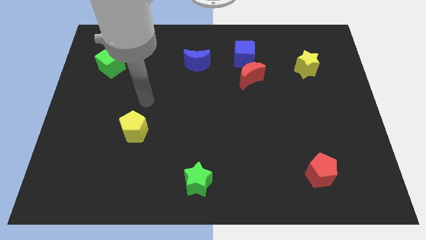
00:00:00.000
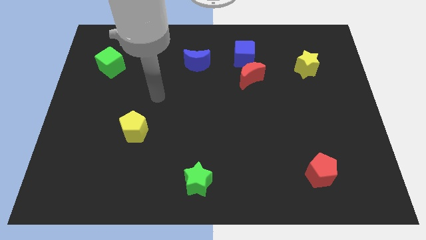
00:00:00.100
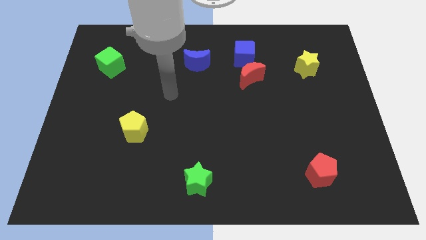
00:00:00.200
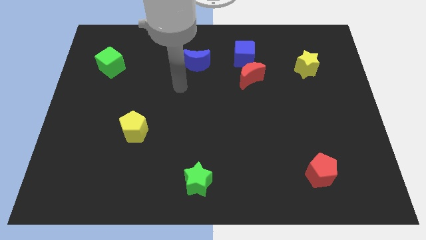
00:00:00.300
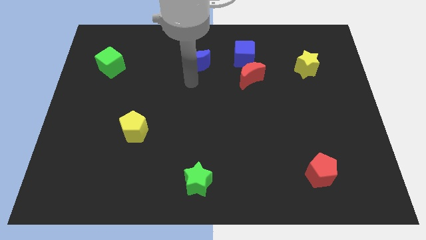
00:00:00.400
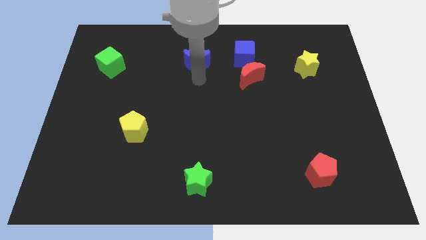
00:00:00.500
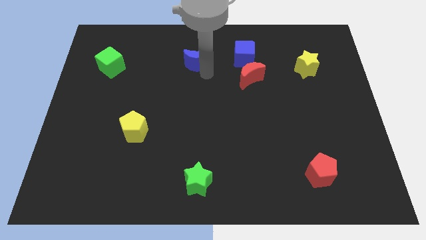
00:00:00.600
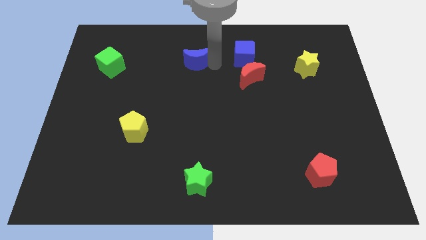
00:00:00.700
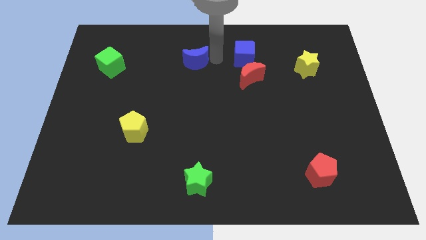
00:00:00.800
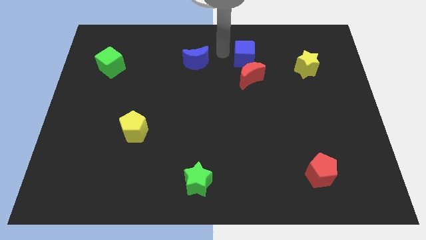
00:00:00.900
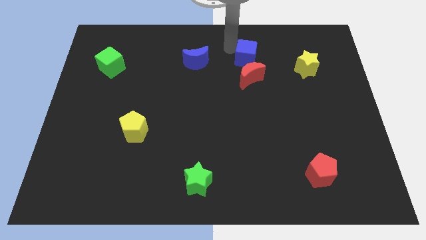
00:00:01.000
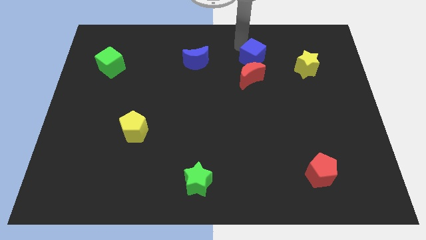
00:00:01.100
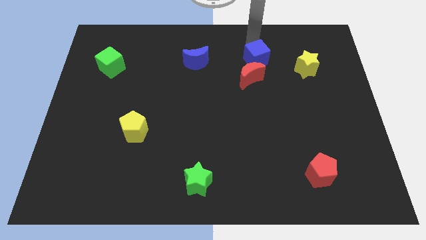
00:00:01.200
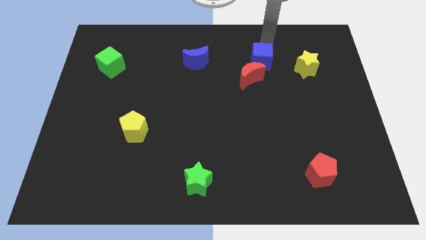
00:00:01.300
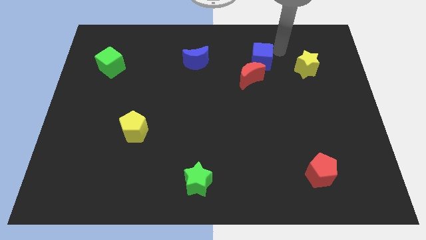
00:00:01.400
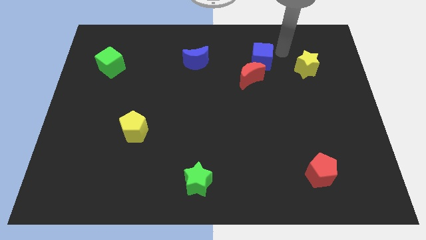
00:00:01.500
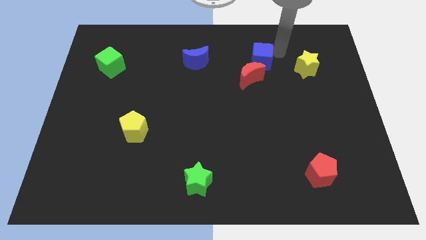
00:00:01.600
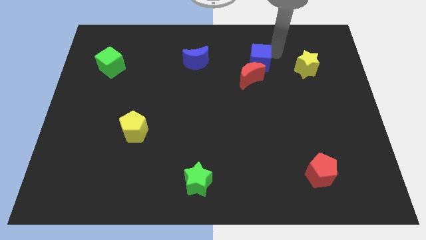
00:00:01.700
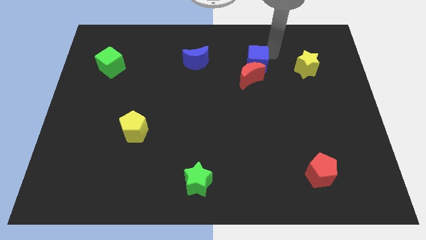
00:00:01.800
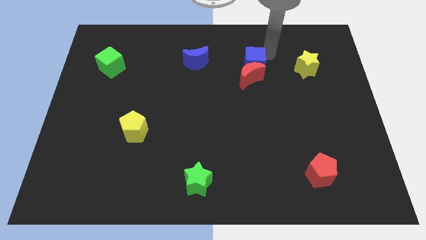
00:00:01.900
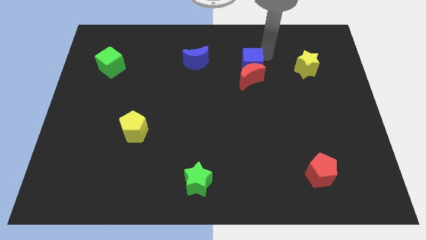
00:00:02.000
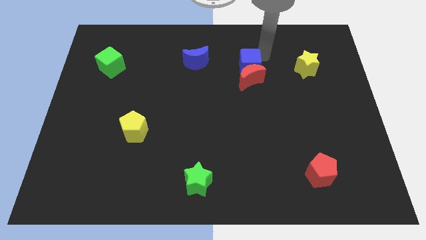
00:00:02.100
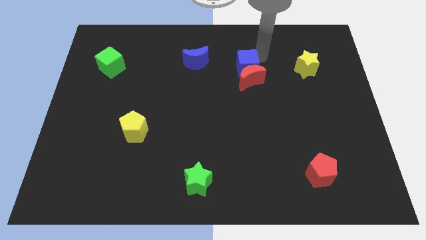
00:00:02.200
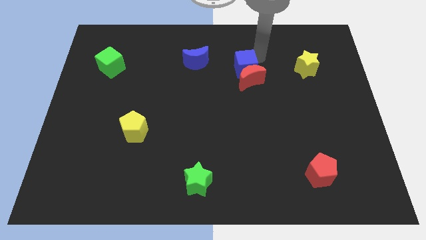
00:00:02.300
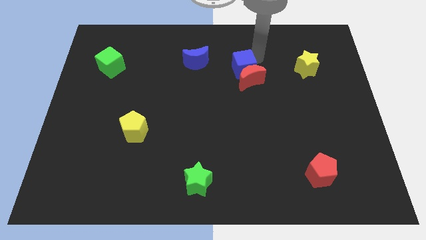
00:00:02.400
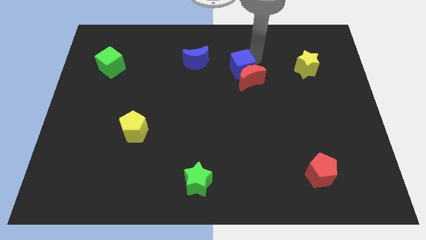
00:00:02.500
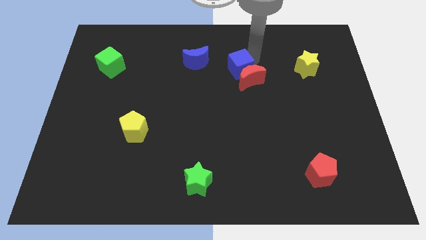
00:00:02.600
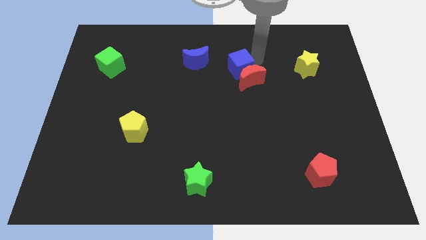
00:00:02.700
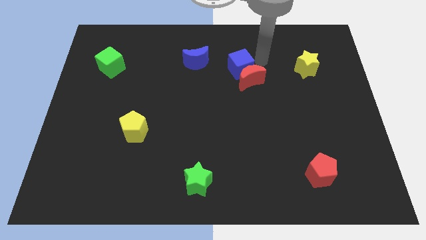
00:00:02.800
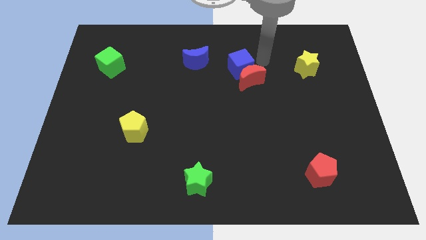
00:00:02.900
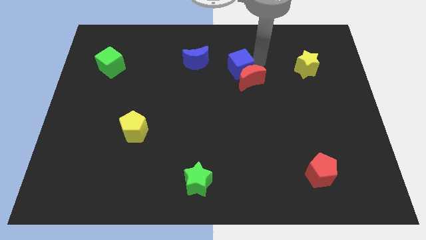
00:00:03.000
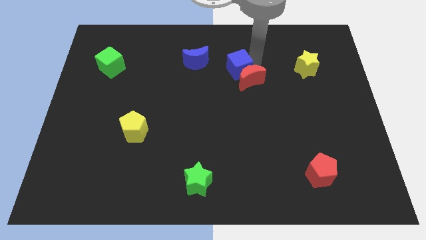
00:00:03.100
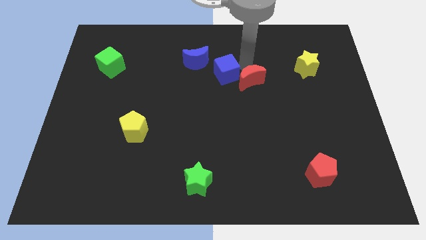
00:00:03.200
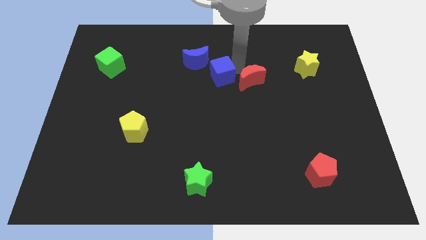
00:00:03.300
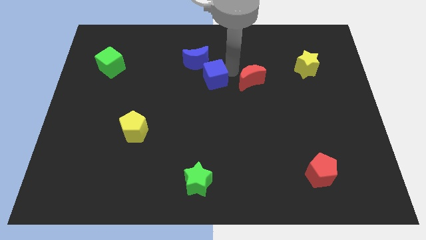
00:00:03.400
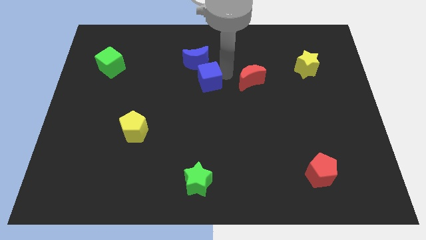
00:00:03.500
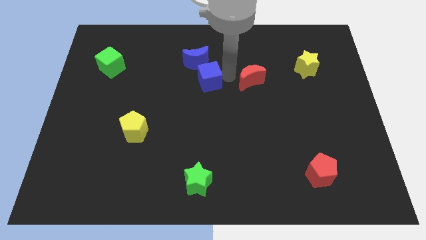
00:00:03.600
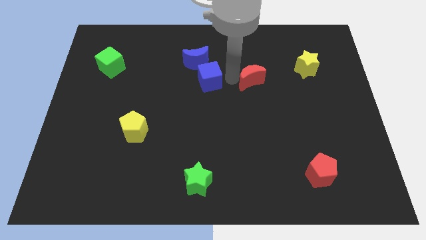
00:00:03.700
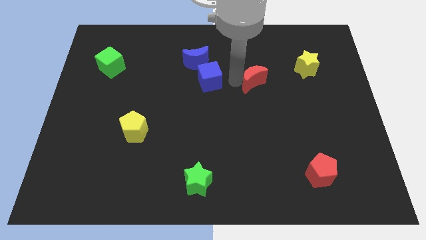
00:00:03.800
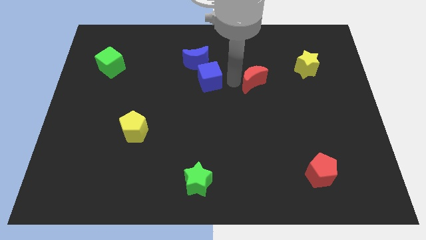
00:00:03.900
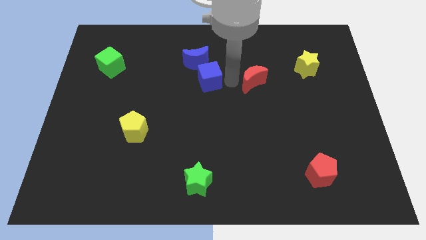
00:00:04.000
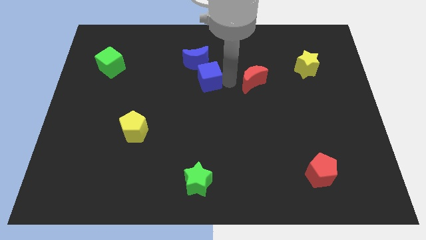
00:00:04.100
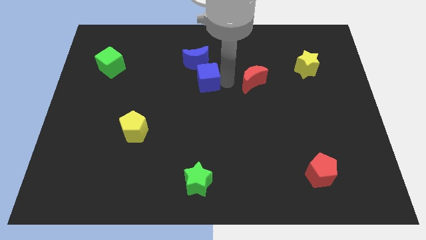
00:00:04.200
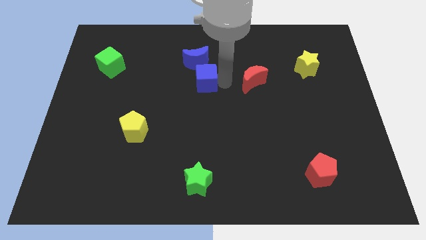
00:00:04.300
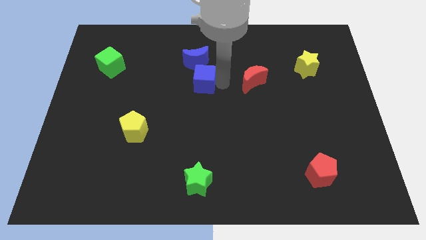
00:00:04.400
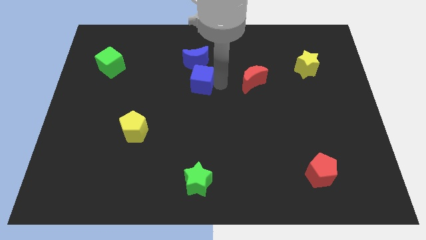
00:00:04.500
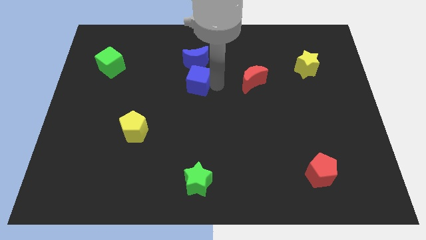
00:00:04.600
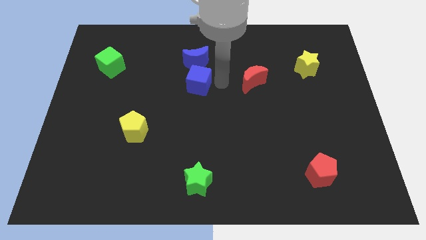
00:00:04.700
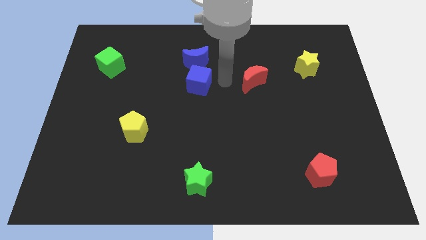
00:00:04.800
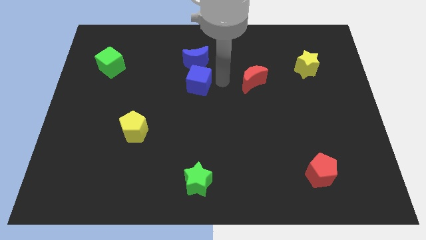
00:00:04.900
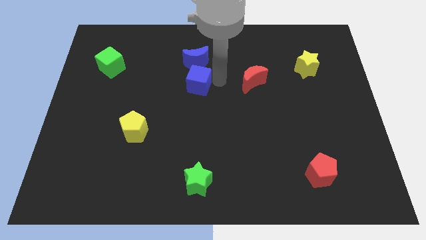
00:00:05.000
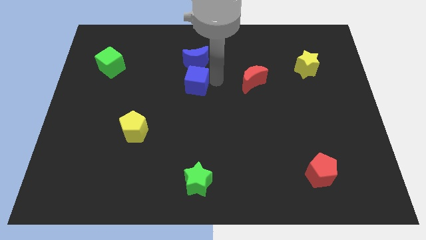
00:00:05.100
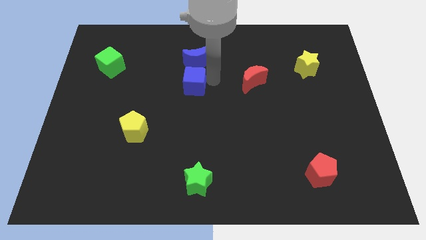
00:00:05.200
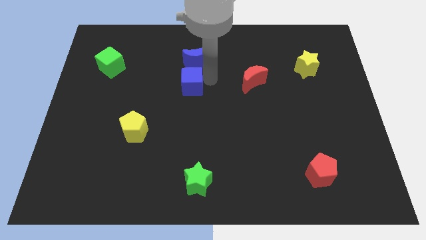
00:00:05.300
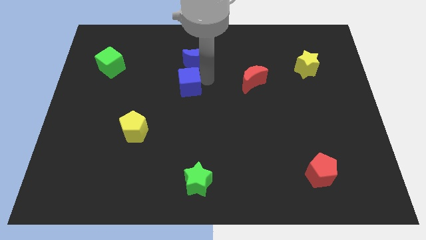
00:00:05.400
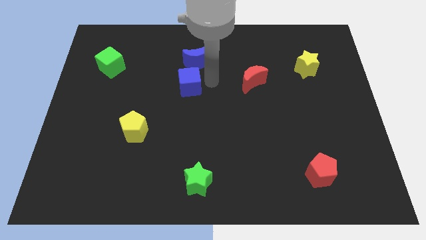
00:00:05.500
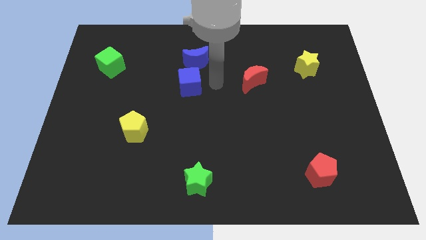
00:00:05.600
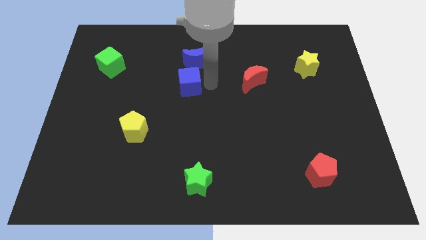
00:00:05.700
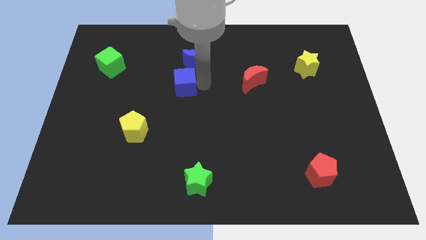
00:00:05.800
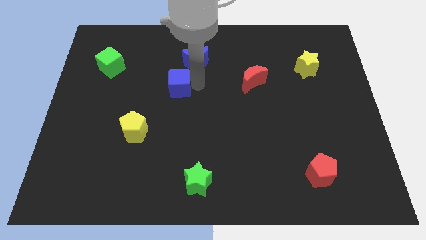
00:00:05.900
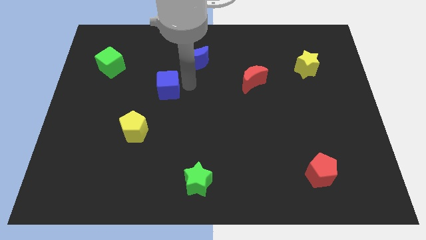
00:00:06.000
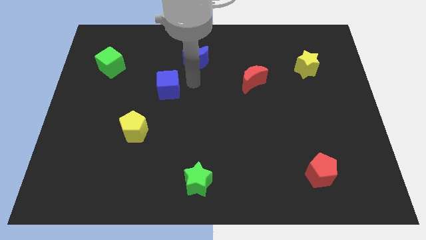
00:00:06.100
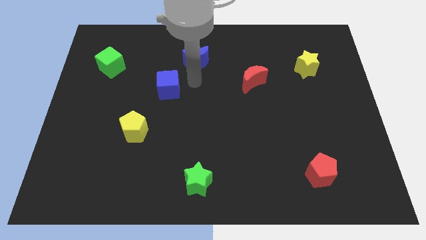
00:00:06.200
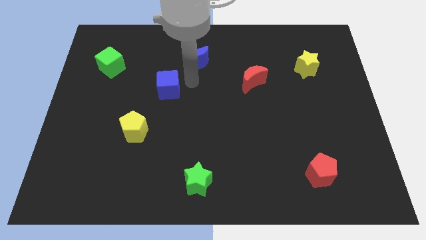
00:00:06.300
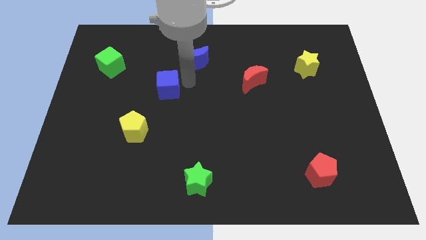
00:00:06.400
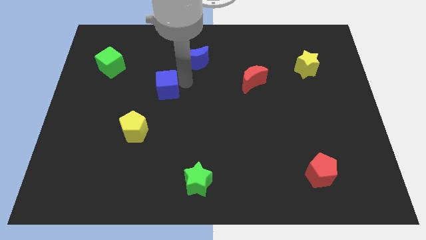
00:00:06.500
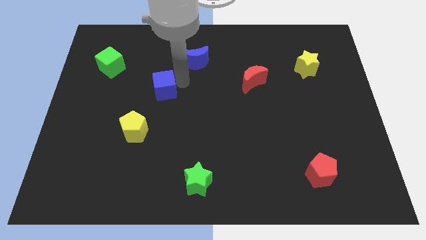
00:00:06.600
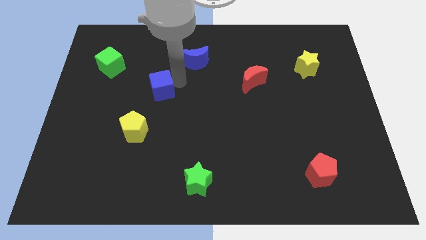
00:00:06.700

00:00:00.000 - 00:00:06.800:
move the blue cube to the top of the yellow pentagon

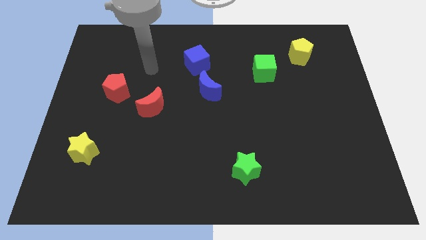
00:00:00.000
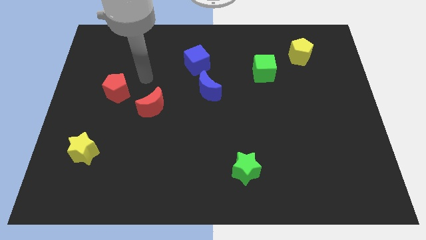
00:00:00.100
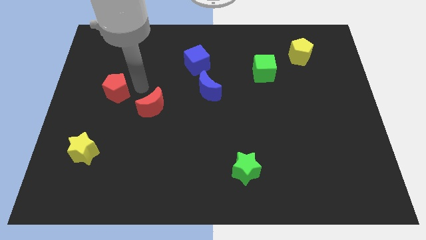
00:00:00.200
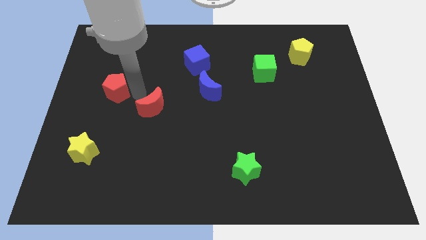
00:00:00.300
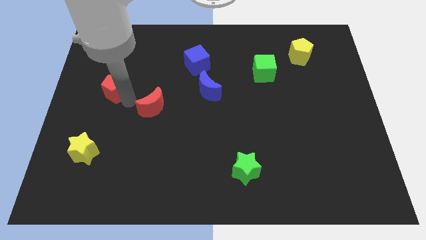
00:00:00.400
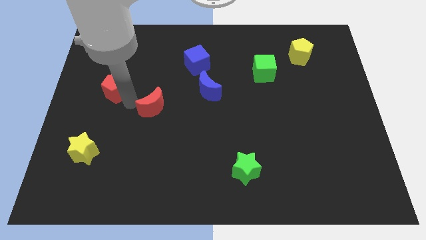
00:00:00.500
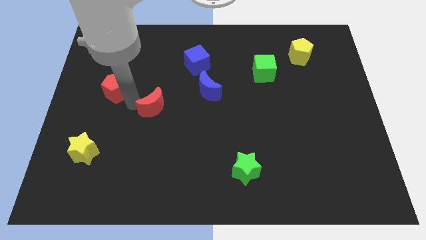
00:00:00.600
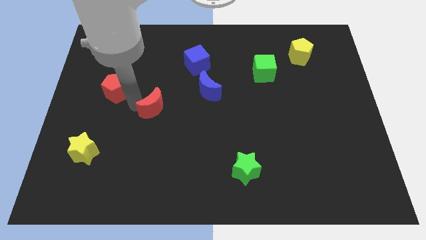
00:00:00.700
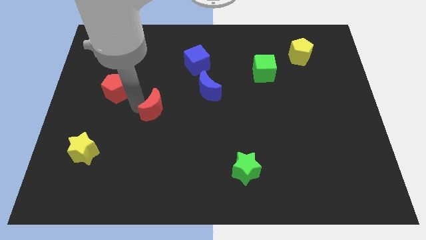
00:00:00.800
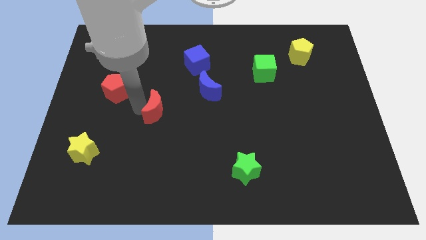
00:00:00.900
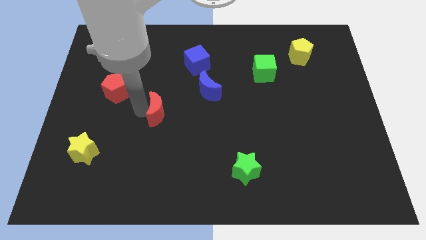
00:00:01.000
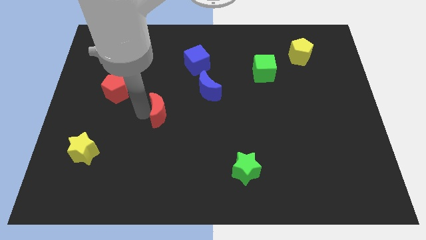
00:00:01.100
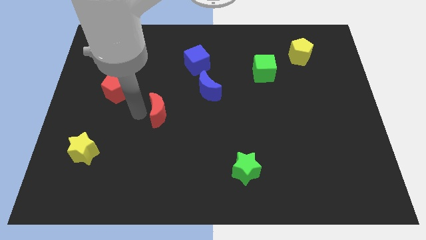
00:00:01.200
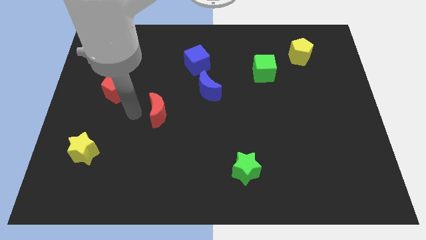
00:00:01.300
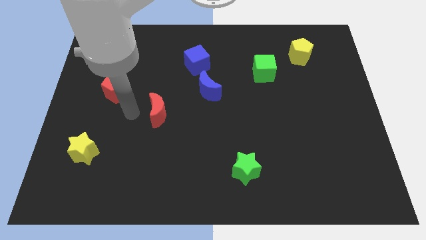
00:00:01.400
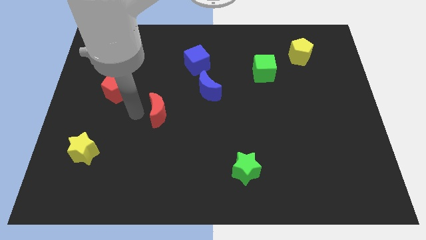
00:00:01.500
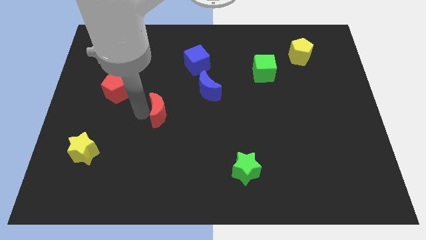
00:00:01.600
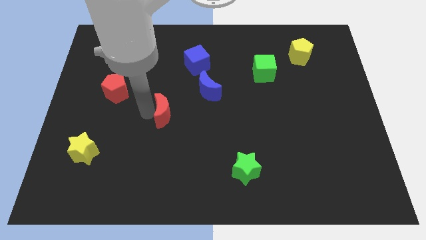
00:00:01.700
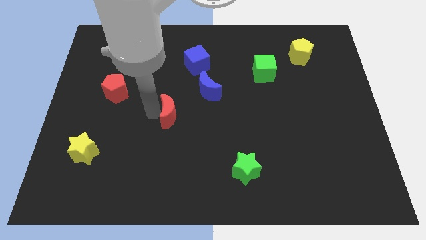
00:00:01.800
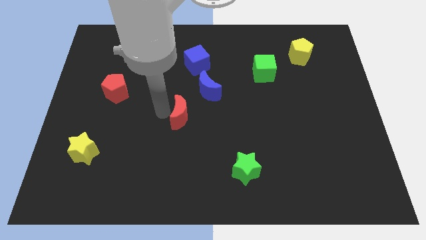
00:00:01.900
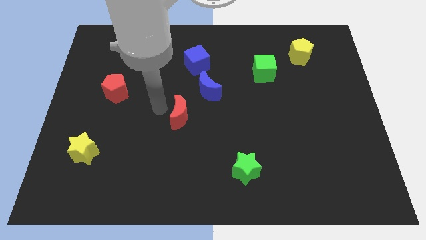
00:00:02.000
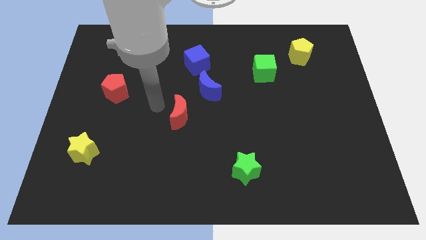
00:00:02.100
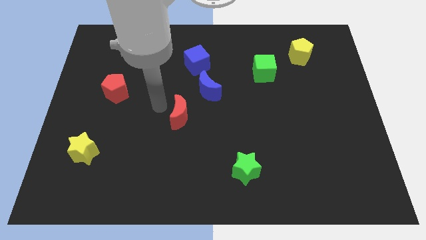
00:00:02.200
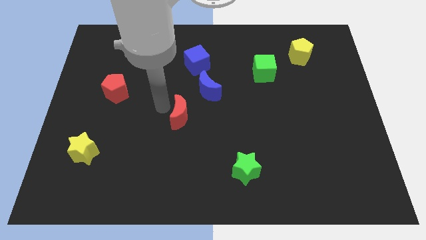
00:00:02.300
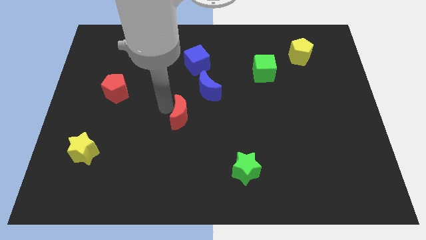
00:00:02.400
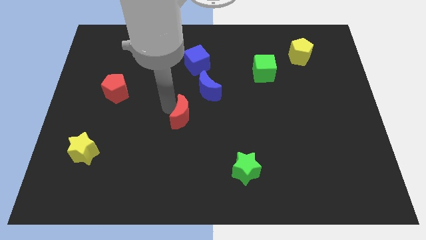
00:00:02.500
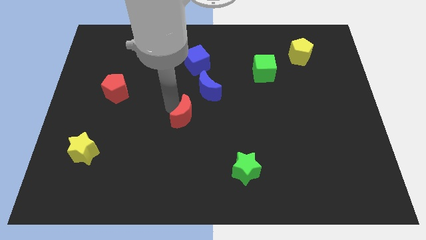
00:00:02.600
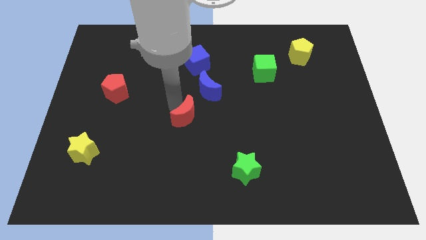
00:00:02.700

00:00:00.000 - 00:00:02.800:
slide the red moon below the blue moon
